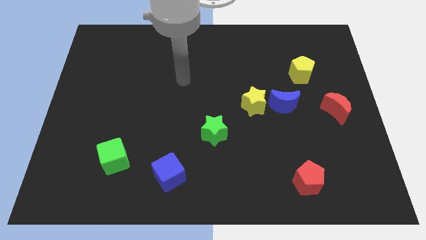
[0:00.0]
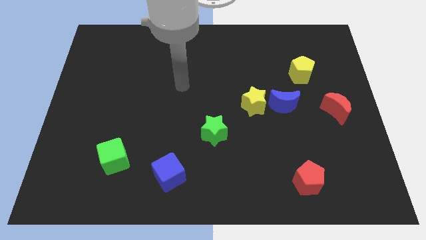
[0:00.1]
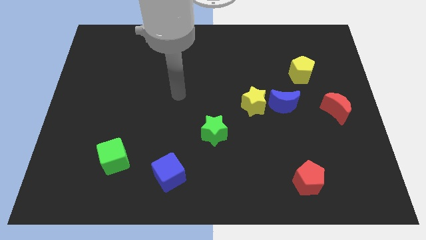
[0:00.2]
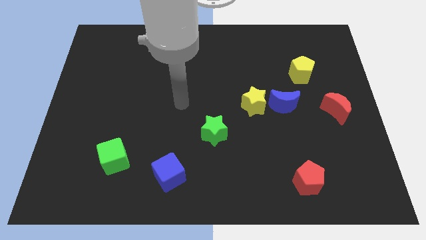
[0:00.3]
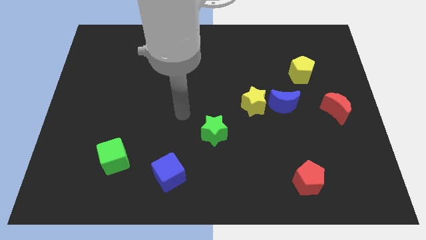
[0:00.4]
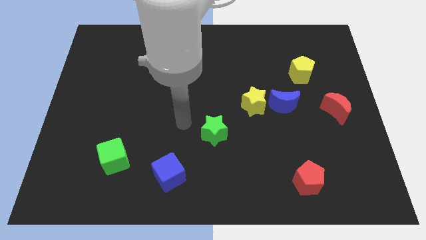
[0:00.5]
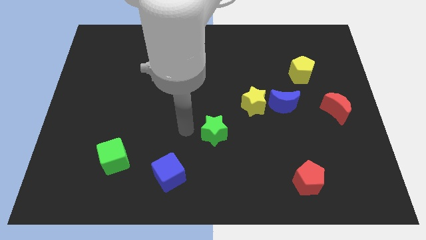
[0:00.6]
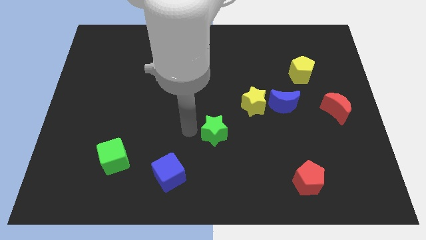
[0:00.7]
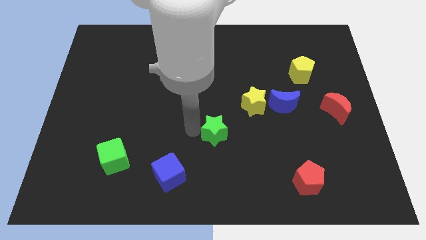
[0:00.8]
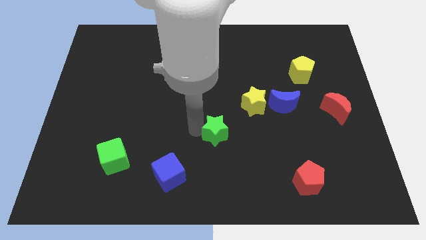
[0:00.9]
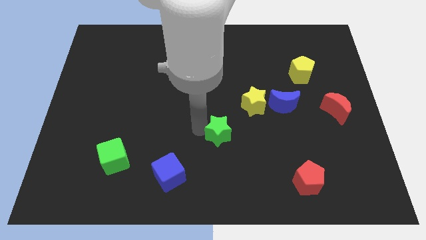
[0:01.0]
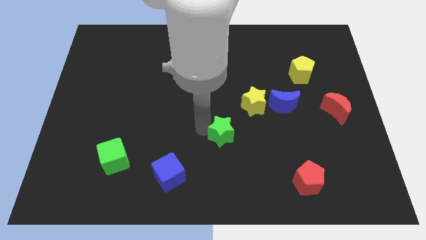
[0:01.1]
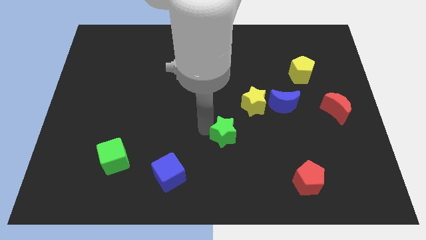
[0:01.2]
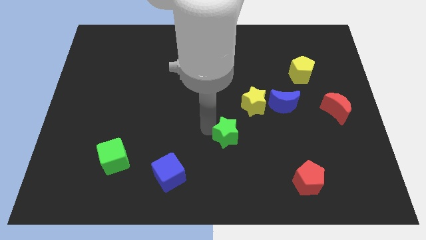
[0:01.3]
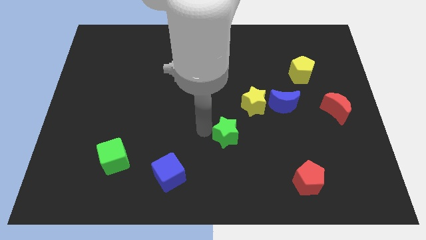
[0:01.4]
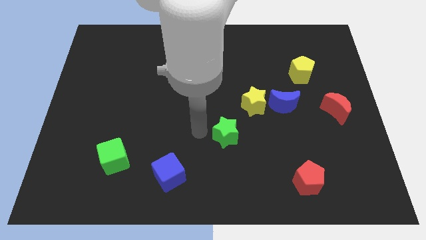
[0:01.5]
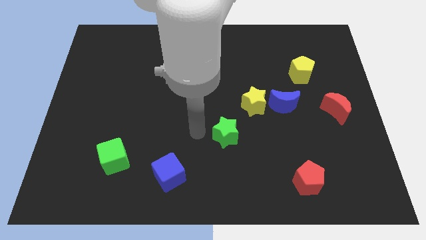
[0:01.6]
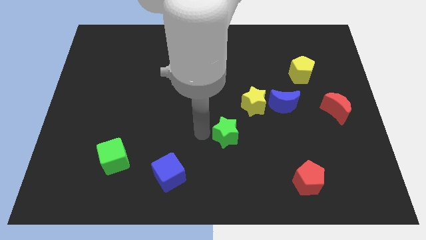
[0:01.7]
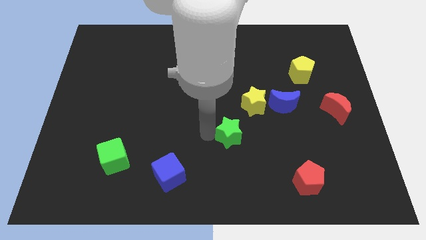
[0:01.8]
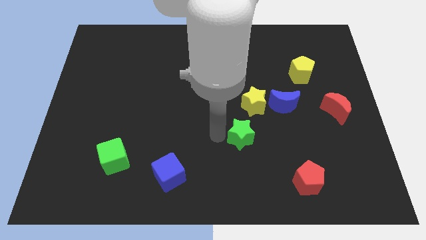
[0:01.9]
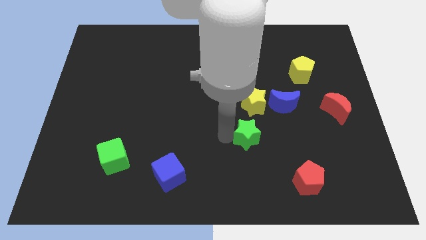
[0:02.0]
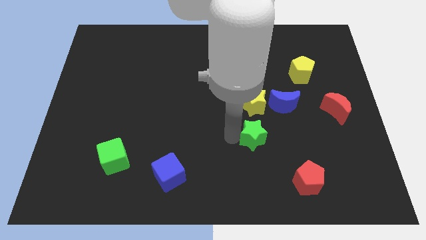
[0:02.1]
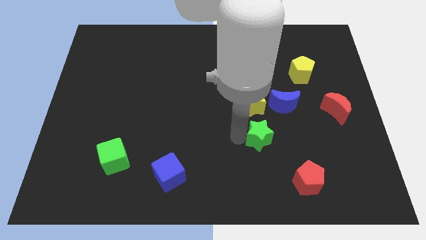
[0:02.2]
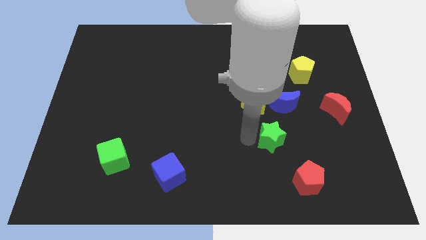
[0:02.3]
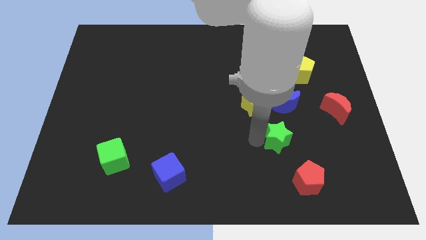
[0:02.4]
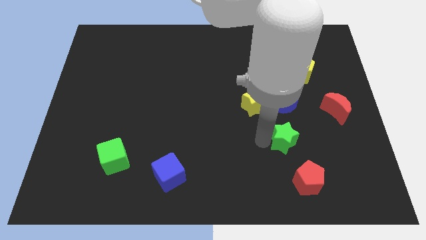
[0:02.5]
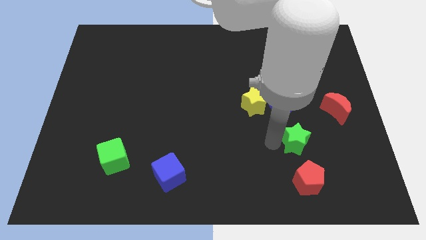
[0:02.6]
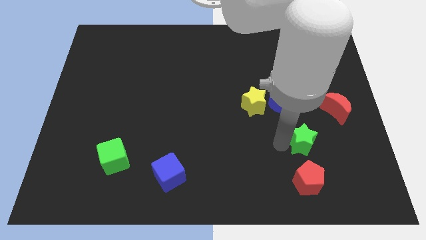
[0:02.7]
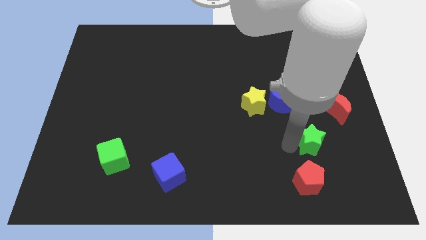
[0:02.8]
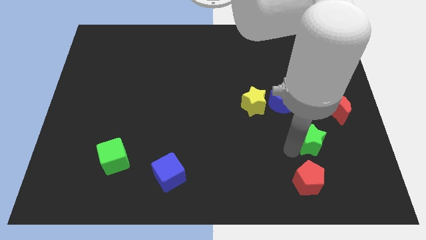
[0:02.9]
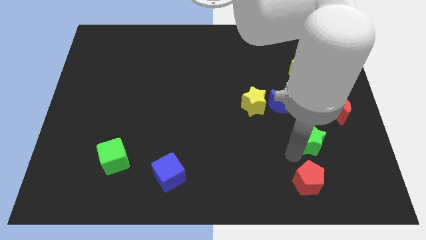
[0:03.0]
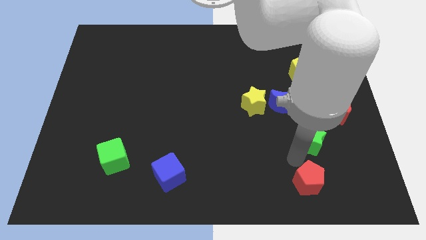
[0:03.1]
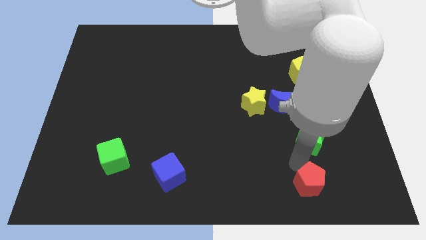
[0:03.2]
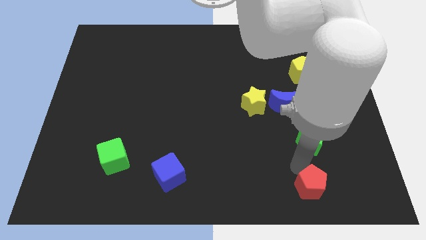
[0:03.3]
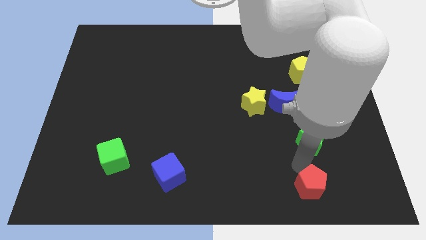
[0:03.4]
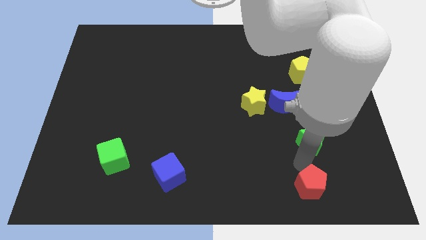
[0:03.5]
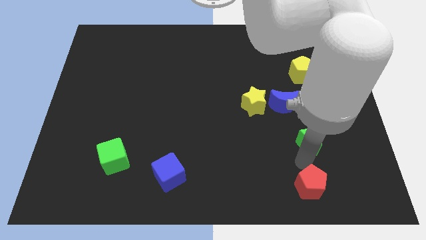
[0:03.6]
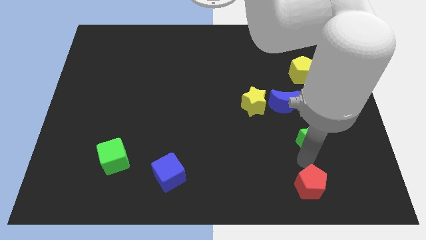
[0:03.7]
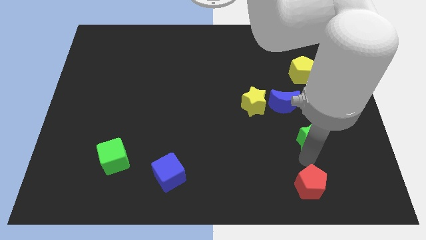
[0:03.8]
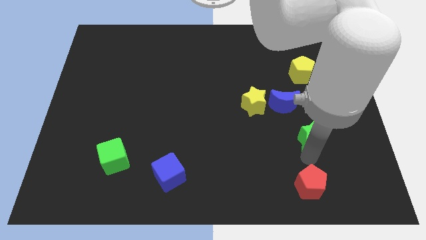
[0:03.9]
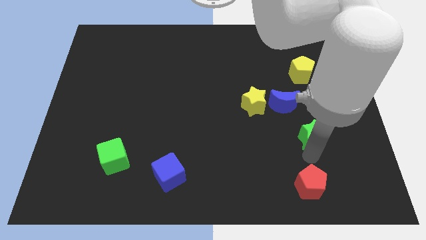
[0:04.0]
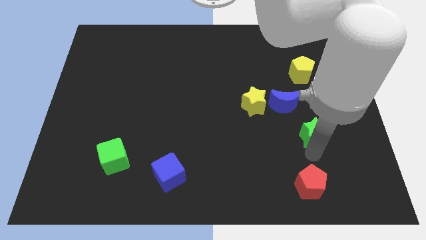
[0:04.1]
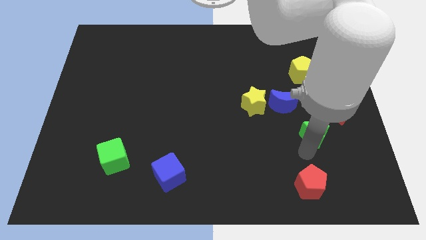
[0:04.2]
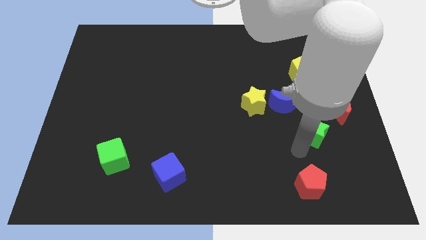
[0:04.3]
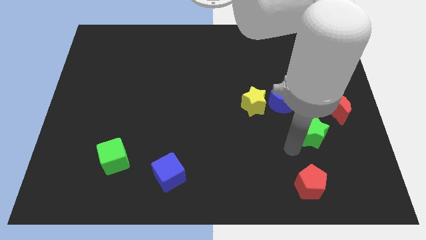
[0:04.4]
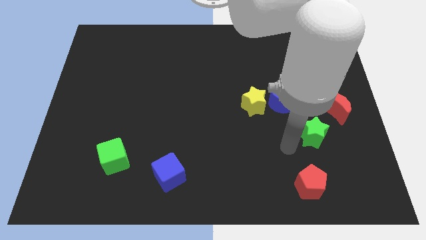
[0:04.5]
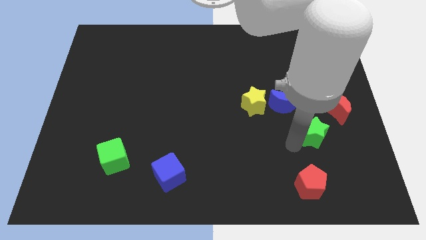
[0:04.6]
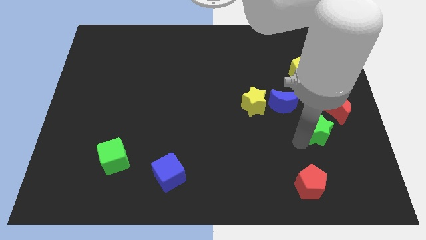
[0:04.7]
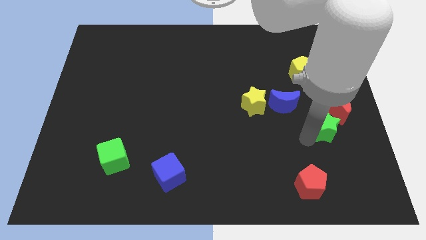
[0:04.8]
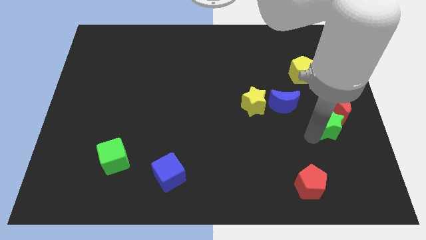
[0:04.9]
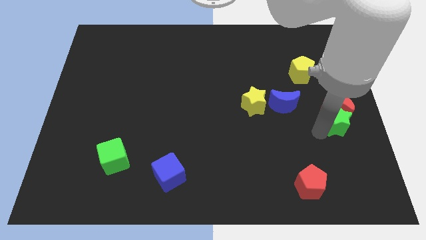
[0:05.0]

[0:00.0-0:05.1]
push the green star to the right side of the board

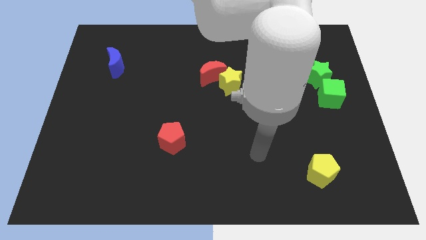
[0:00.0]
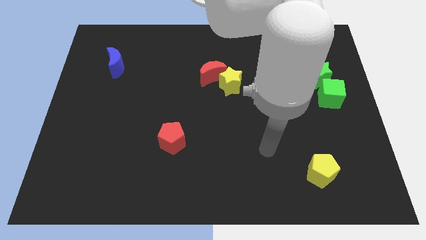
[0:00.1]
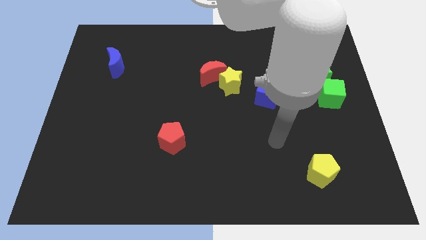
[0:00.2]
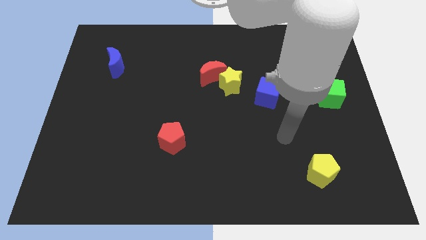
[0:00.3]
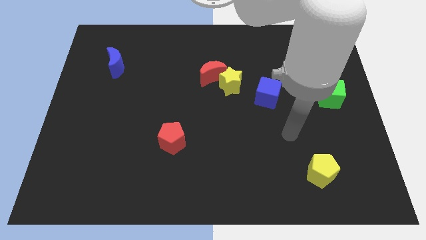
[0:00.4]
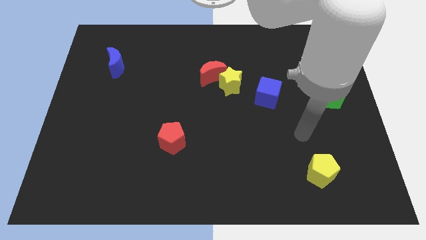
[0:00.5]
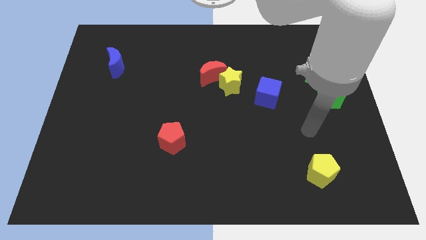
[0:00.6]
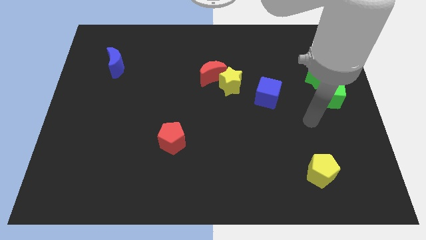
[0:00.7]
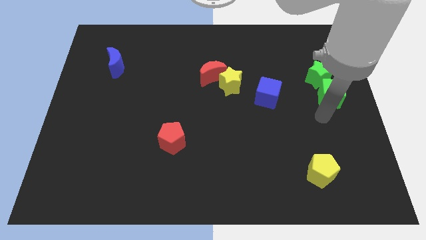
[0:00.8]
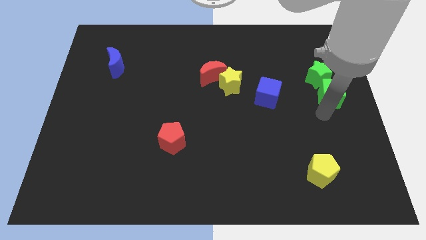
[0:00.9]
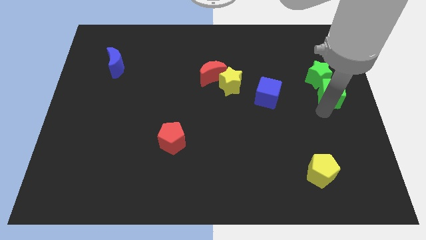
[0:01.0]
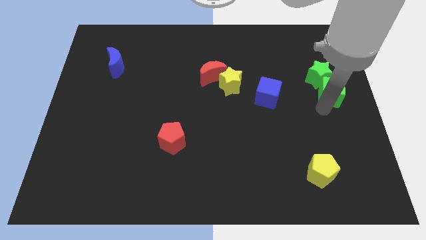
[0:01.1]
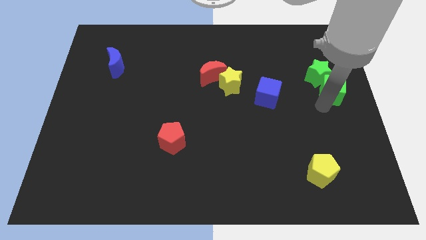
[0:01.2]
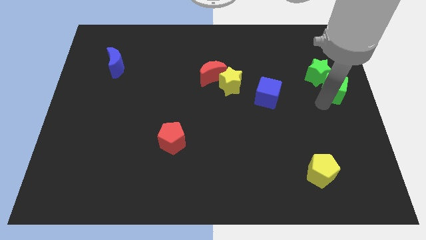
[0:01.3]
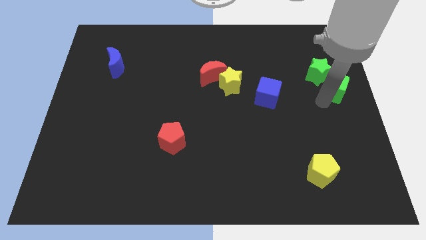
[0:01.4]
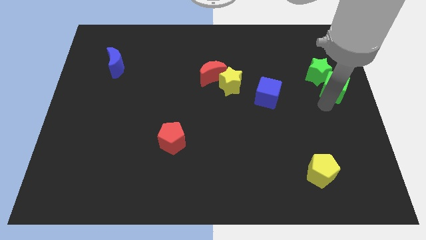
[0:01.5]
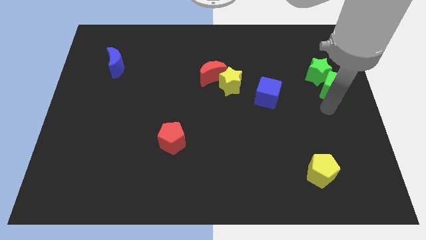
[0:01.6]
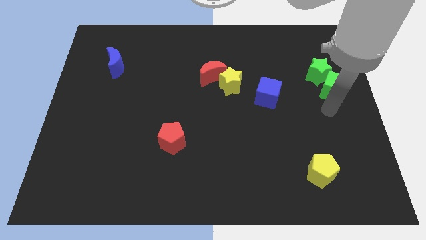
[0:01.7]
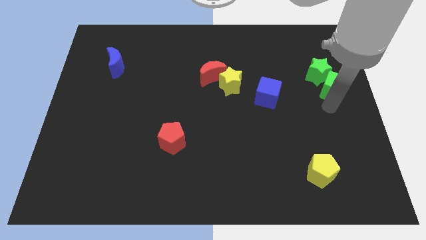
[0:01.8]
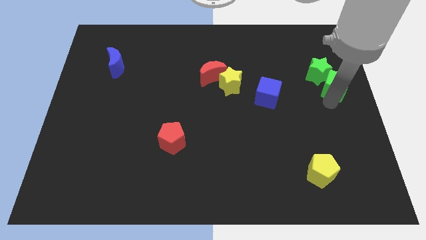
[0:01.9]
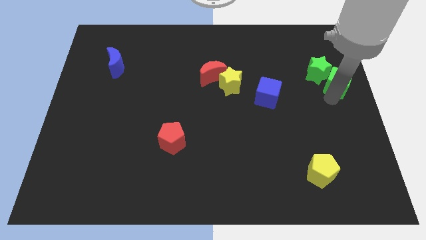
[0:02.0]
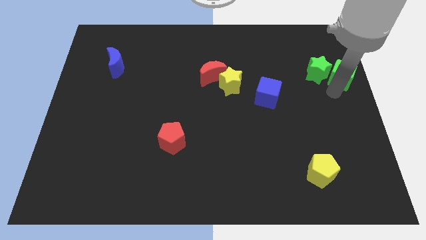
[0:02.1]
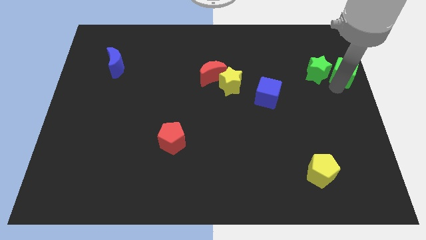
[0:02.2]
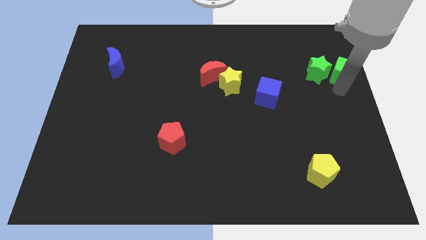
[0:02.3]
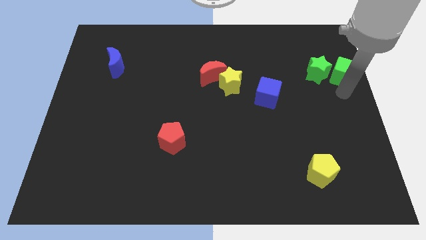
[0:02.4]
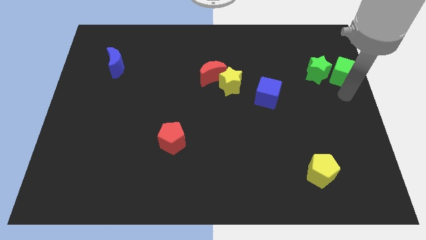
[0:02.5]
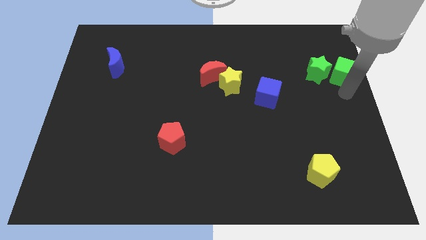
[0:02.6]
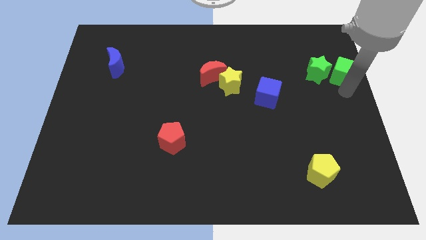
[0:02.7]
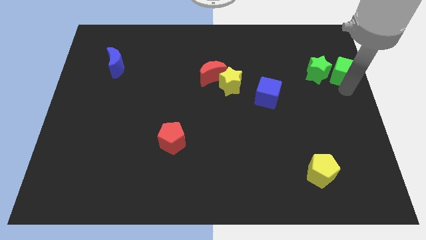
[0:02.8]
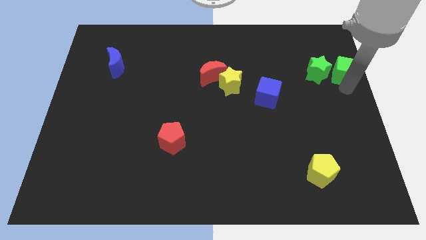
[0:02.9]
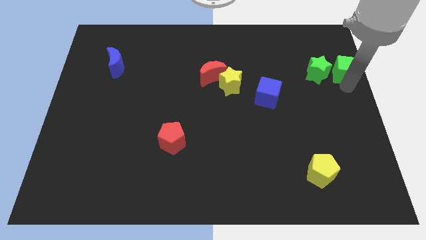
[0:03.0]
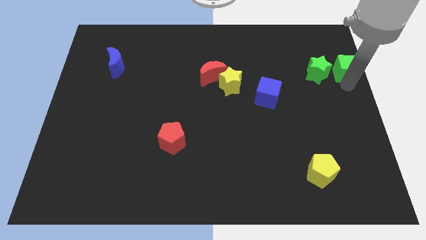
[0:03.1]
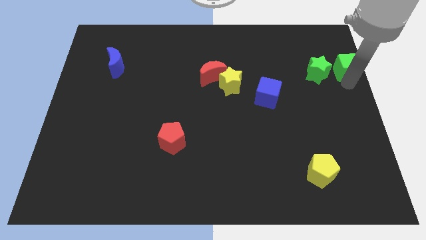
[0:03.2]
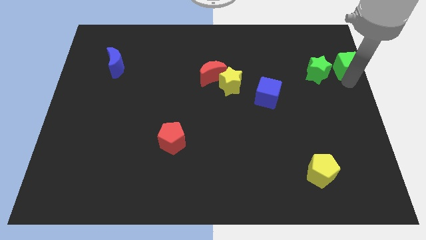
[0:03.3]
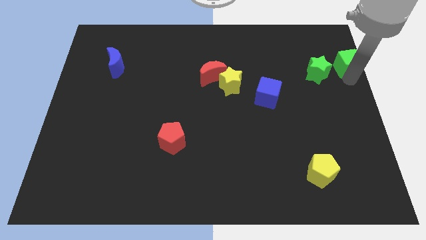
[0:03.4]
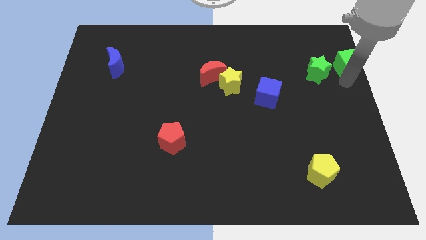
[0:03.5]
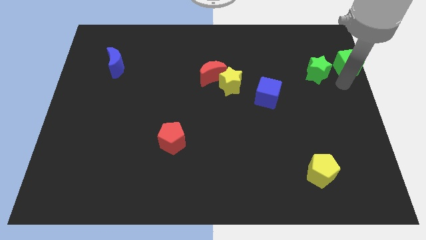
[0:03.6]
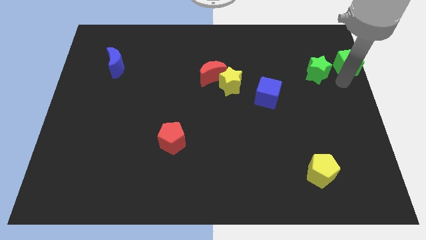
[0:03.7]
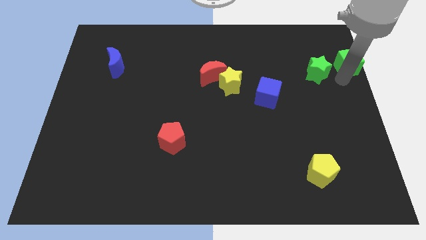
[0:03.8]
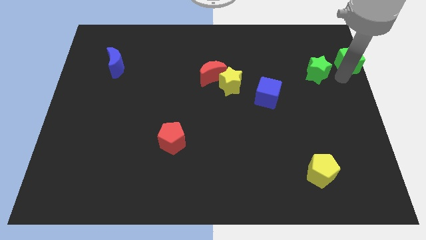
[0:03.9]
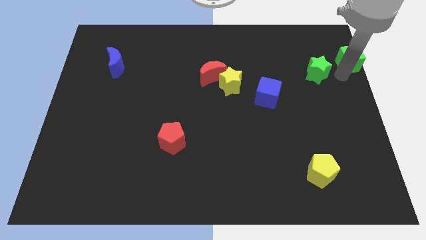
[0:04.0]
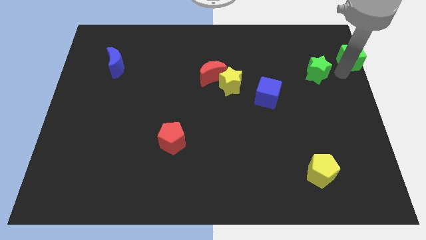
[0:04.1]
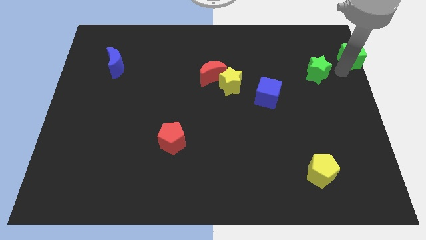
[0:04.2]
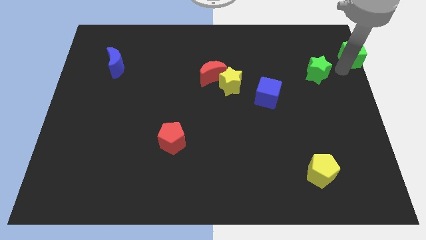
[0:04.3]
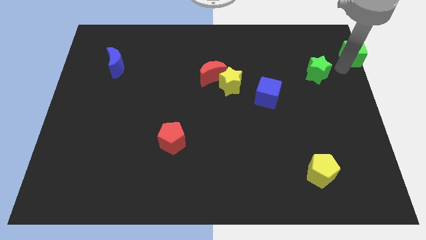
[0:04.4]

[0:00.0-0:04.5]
move the green cube to the top right corner
